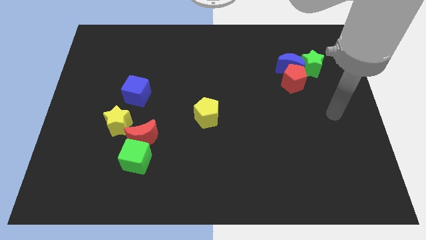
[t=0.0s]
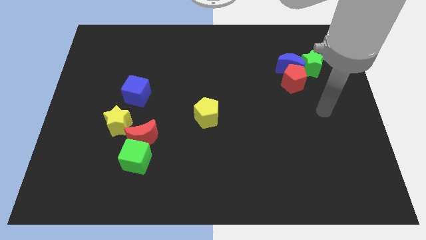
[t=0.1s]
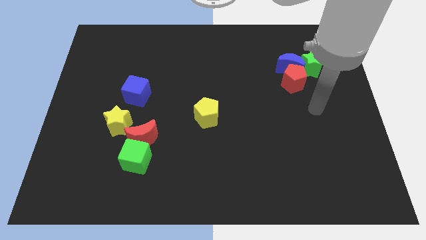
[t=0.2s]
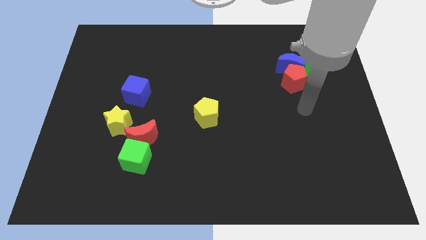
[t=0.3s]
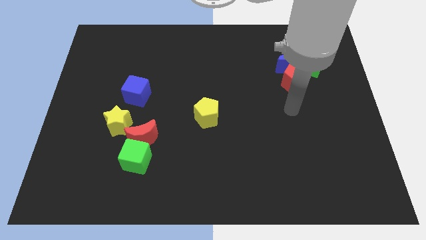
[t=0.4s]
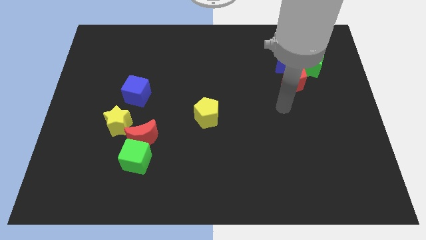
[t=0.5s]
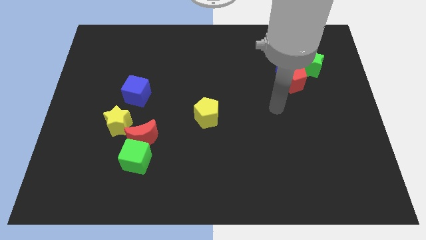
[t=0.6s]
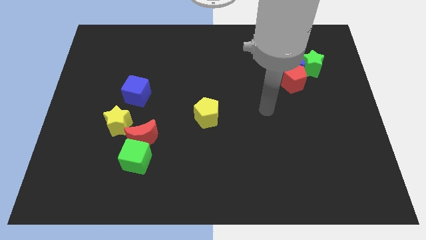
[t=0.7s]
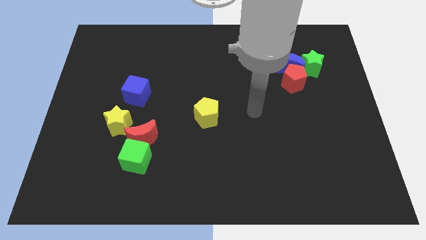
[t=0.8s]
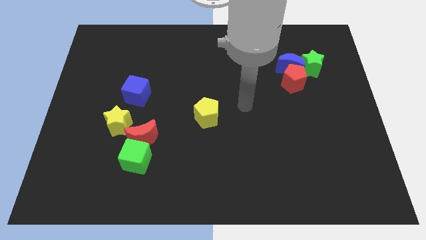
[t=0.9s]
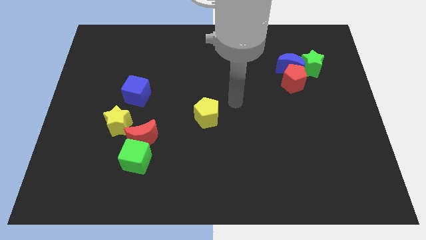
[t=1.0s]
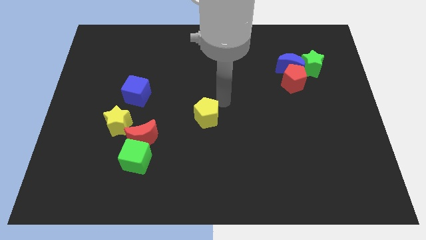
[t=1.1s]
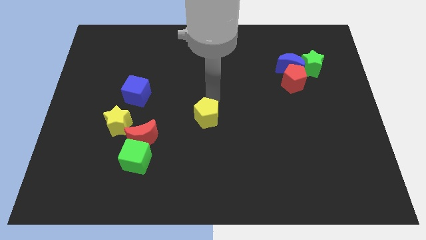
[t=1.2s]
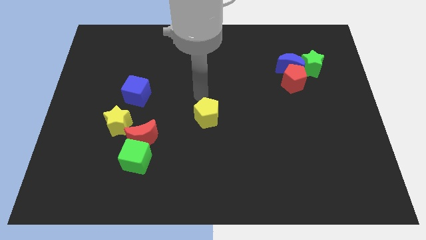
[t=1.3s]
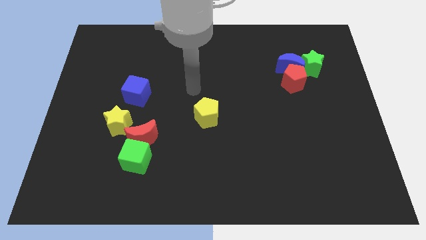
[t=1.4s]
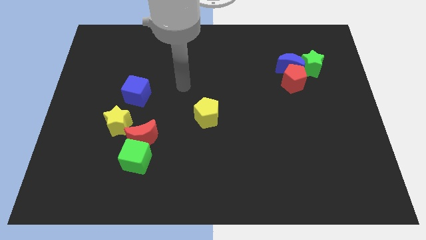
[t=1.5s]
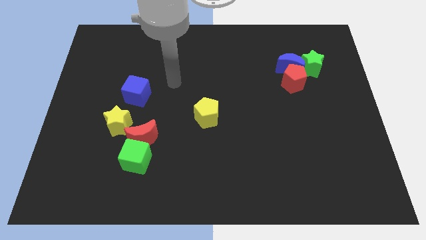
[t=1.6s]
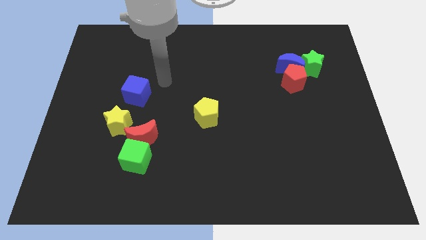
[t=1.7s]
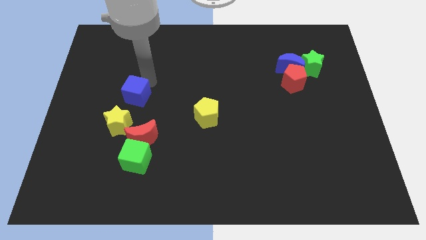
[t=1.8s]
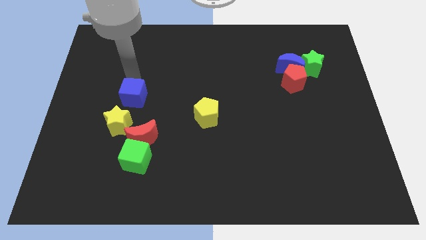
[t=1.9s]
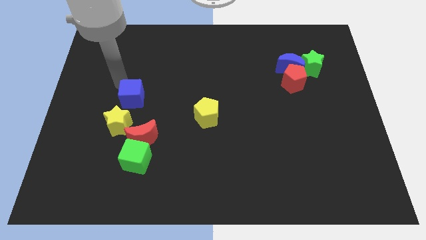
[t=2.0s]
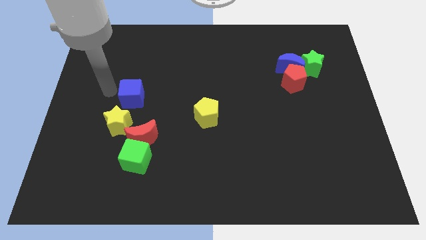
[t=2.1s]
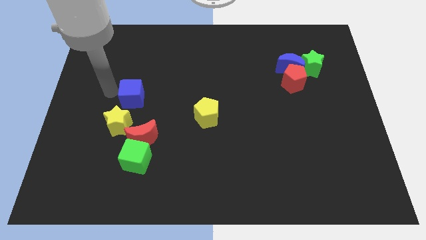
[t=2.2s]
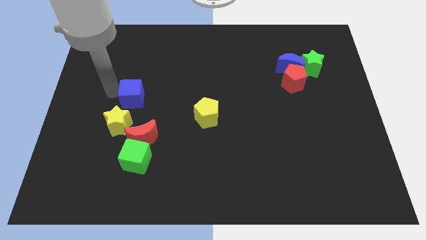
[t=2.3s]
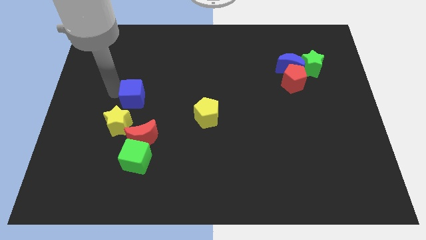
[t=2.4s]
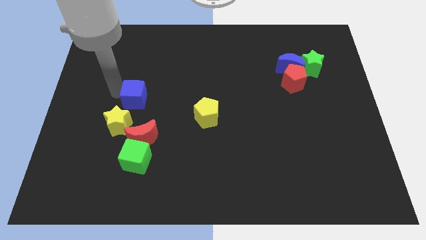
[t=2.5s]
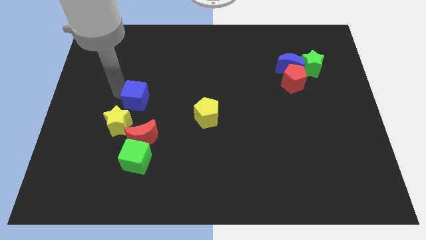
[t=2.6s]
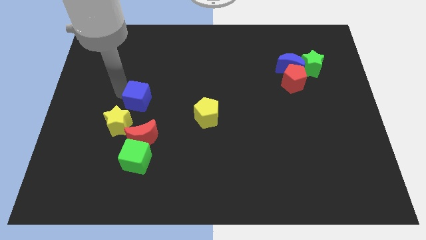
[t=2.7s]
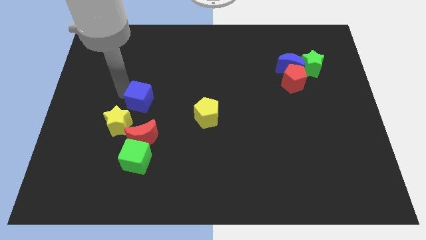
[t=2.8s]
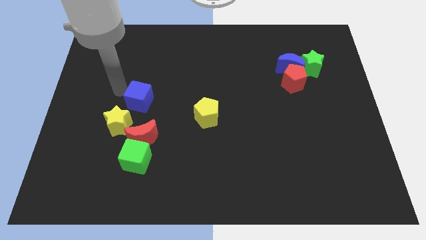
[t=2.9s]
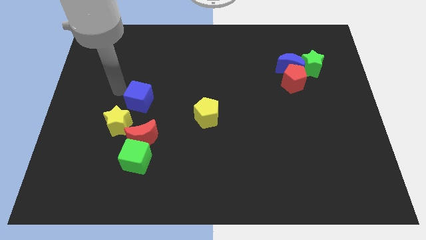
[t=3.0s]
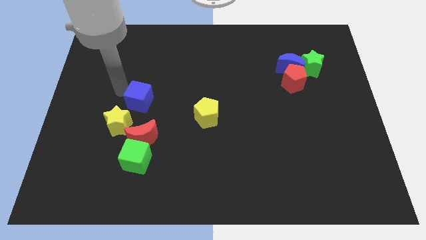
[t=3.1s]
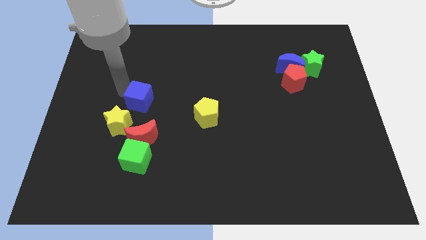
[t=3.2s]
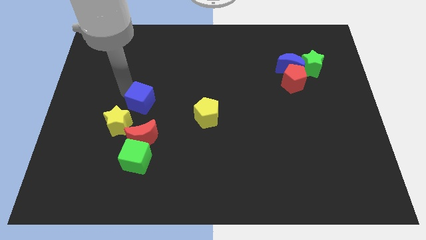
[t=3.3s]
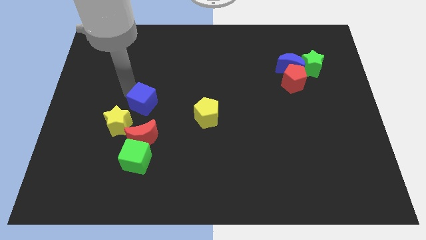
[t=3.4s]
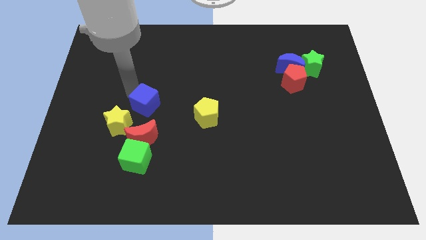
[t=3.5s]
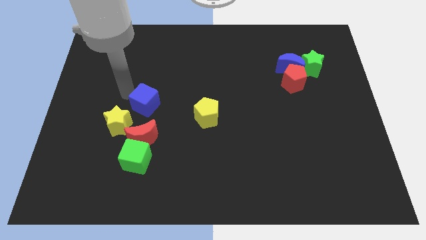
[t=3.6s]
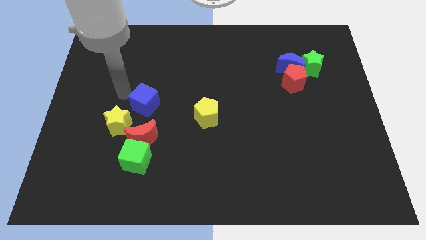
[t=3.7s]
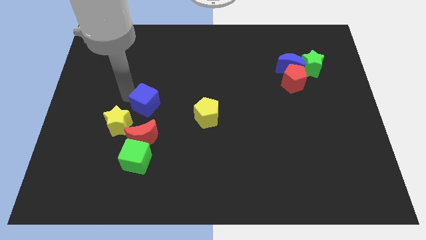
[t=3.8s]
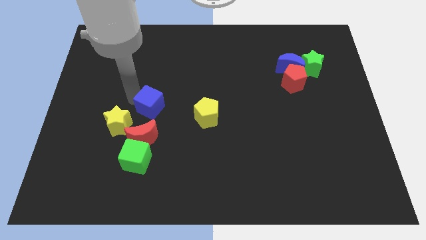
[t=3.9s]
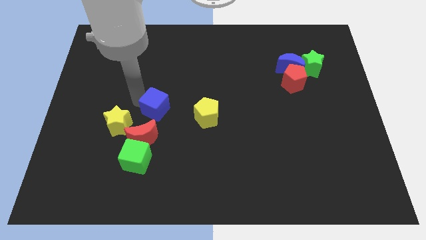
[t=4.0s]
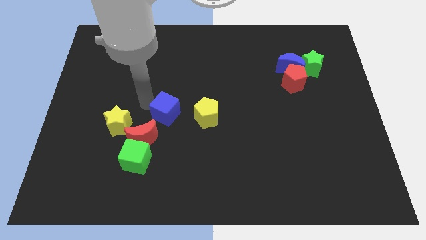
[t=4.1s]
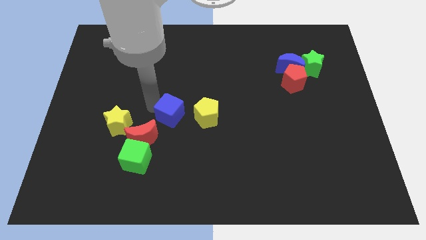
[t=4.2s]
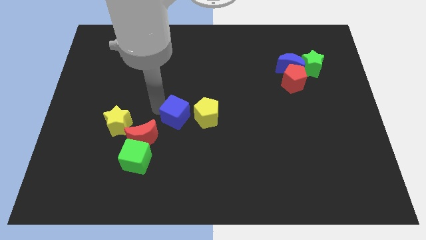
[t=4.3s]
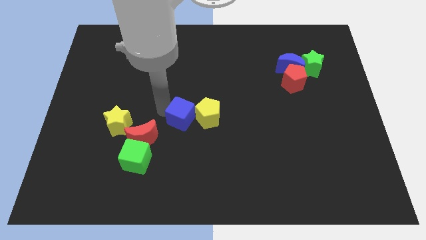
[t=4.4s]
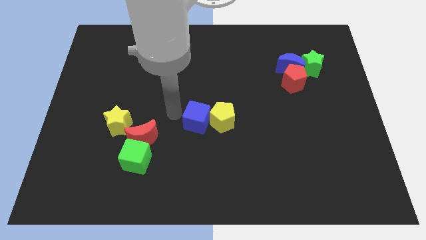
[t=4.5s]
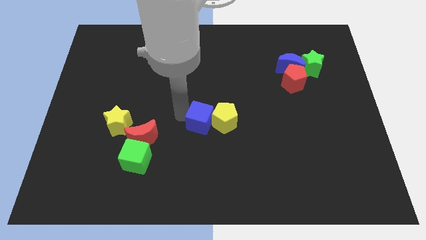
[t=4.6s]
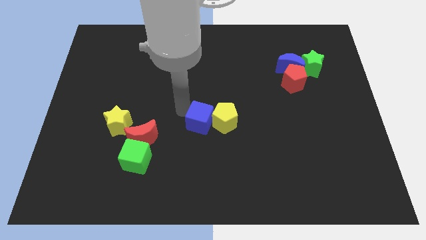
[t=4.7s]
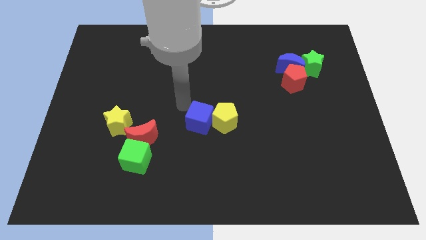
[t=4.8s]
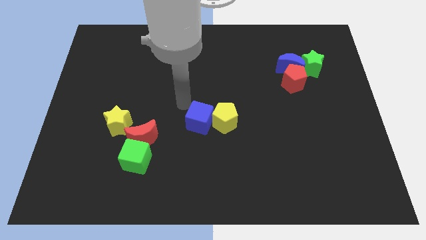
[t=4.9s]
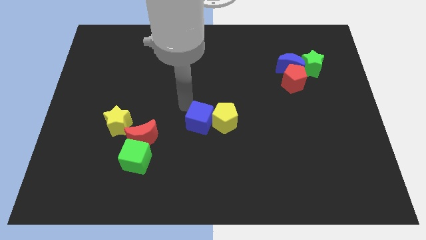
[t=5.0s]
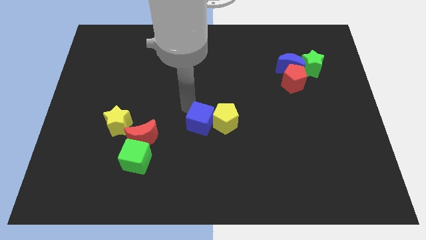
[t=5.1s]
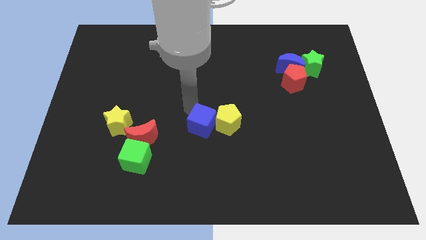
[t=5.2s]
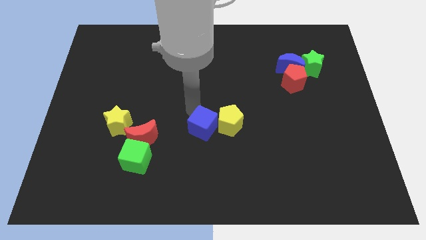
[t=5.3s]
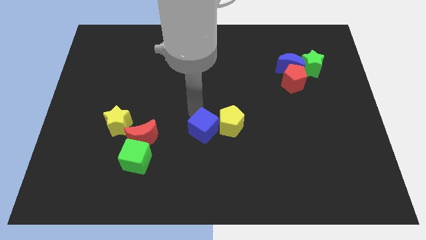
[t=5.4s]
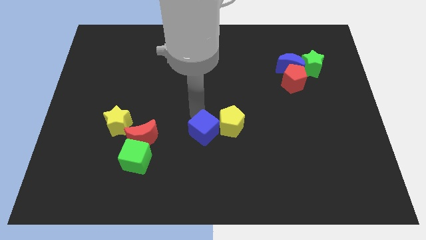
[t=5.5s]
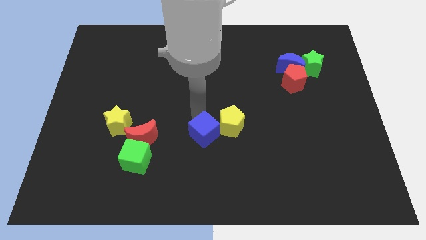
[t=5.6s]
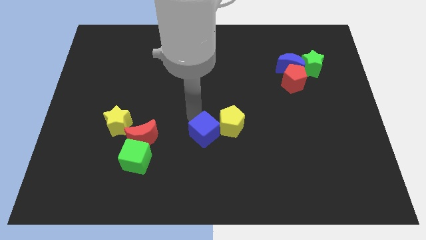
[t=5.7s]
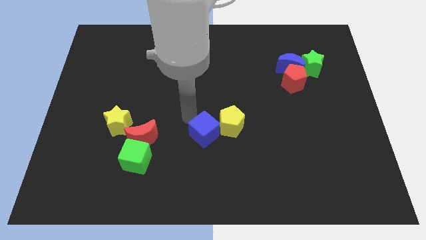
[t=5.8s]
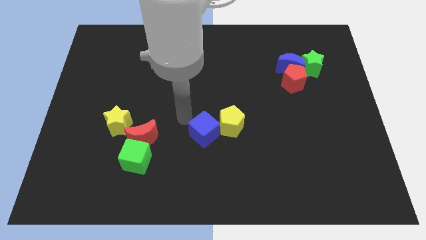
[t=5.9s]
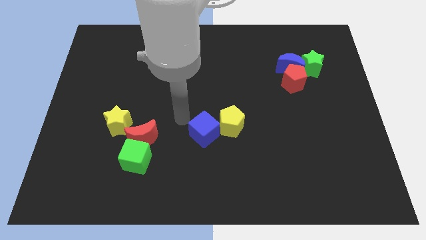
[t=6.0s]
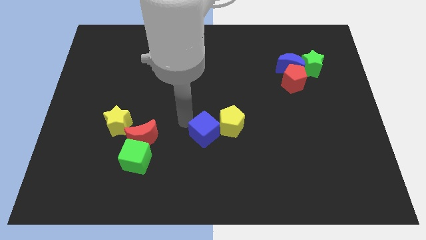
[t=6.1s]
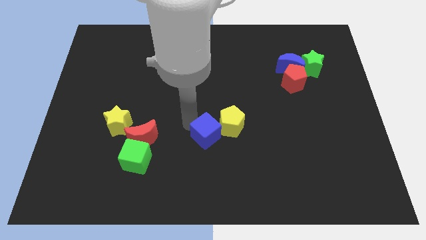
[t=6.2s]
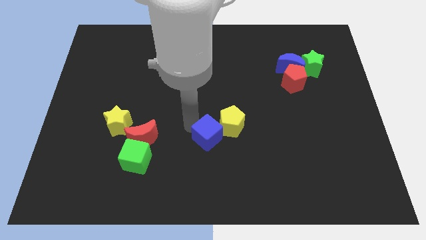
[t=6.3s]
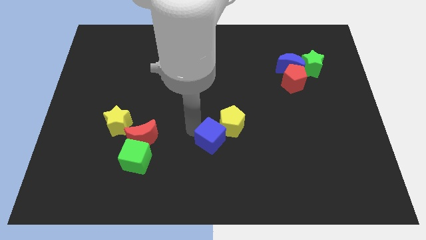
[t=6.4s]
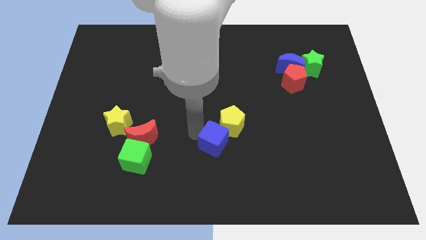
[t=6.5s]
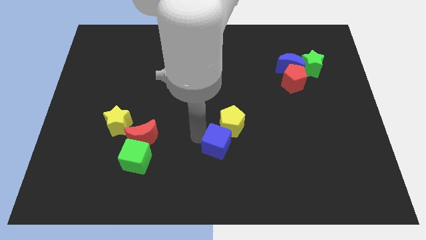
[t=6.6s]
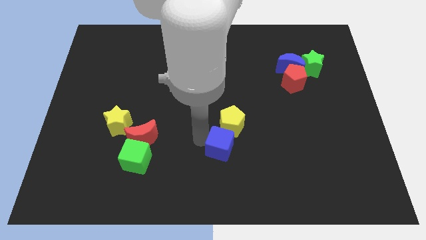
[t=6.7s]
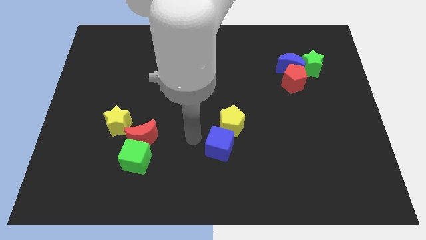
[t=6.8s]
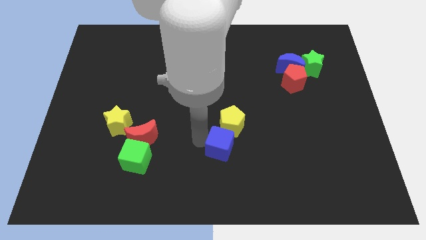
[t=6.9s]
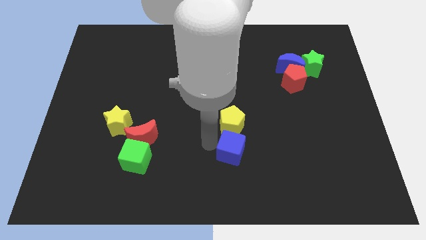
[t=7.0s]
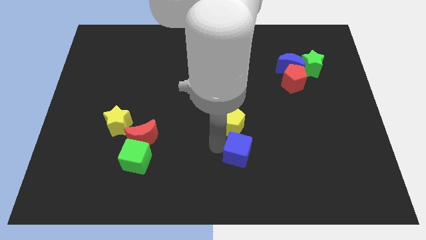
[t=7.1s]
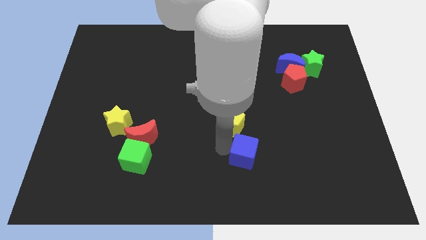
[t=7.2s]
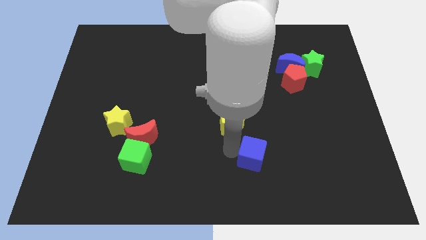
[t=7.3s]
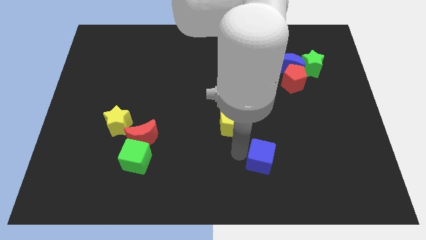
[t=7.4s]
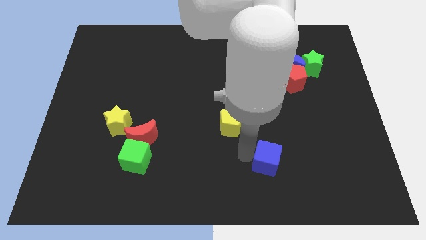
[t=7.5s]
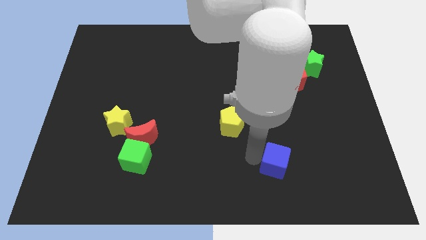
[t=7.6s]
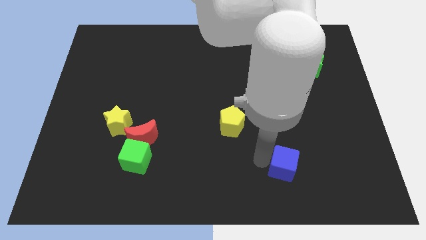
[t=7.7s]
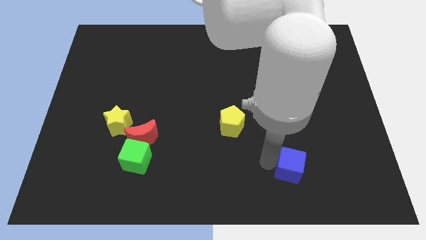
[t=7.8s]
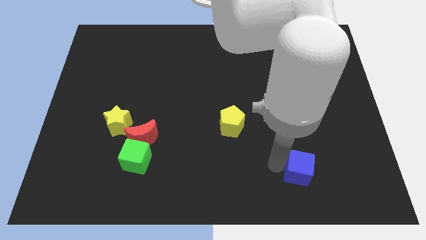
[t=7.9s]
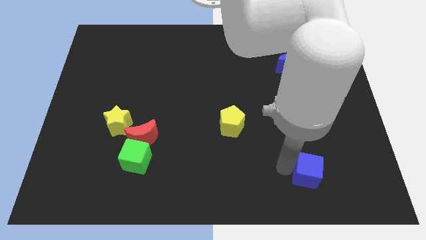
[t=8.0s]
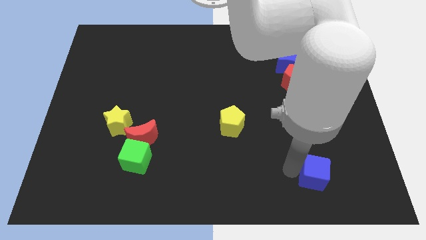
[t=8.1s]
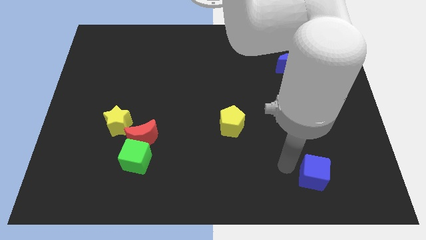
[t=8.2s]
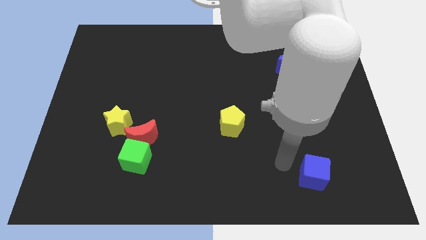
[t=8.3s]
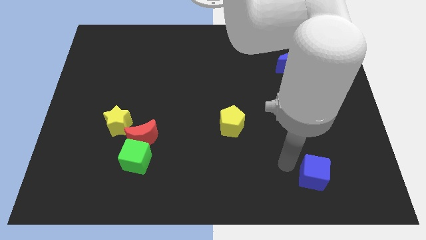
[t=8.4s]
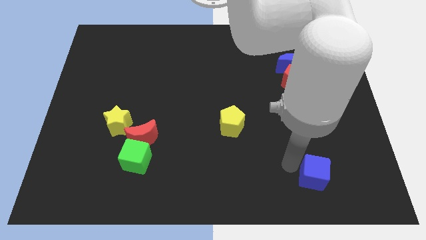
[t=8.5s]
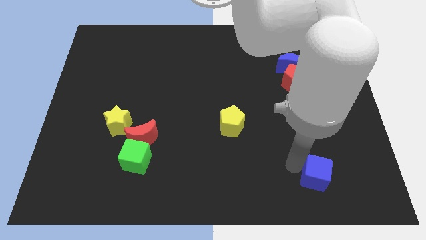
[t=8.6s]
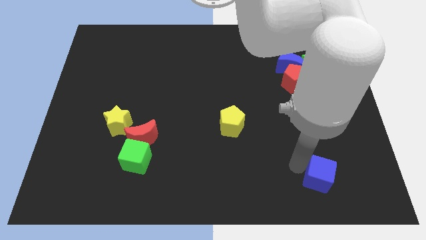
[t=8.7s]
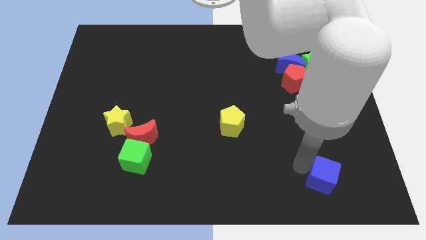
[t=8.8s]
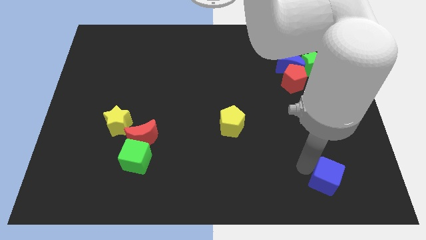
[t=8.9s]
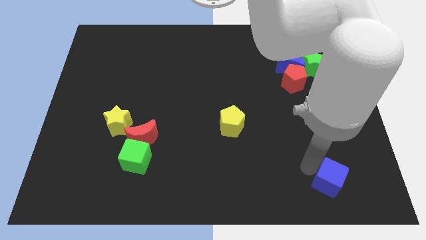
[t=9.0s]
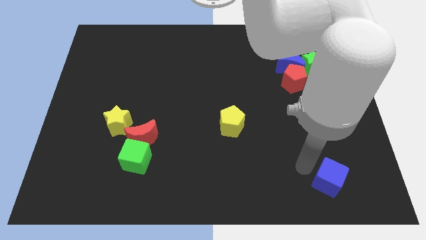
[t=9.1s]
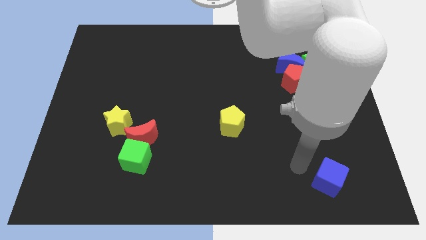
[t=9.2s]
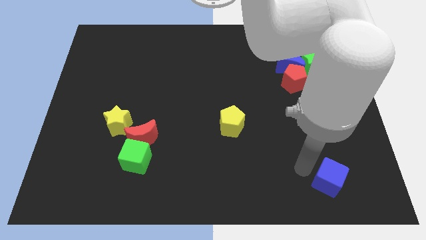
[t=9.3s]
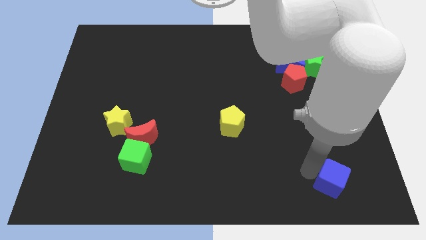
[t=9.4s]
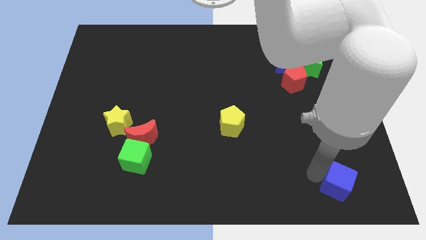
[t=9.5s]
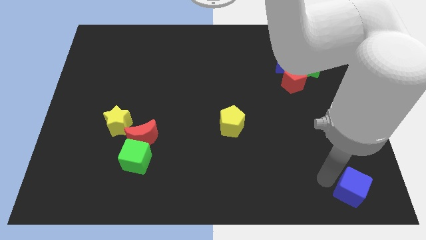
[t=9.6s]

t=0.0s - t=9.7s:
put the blue cube to the lower right corner
